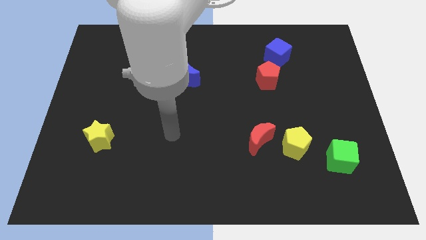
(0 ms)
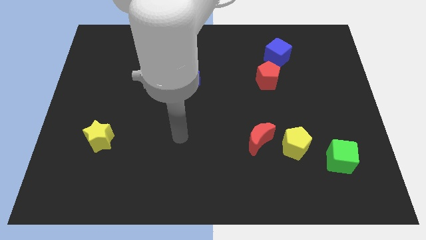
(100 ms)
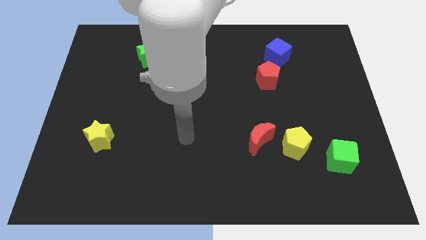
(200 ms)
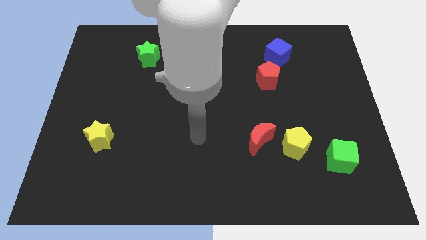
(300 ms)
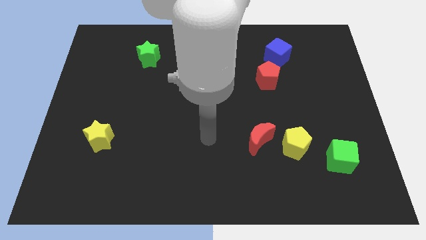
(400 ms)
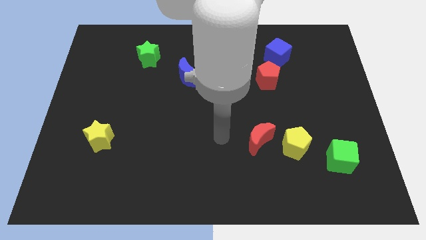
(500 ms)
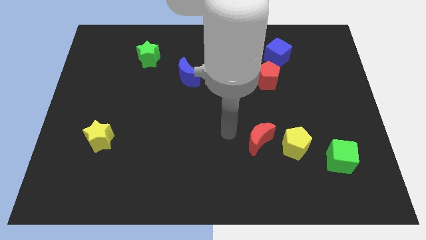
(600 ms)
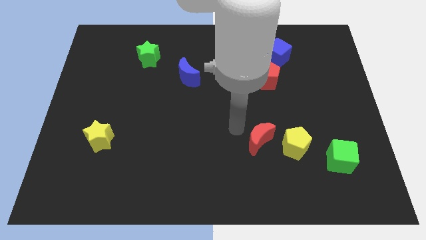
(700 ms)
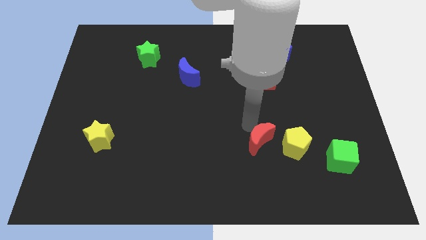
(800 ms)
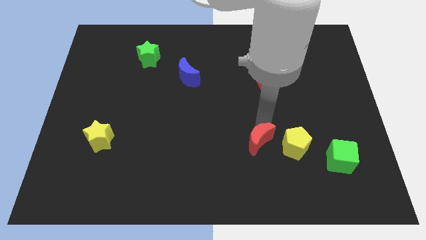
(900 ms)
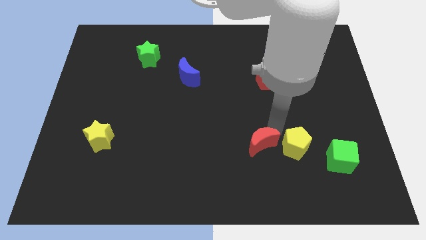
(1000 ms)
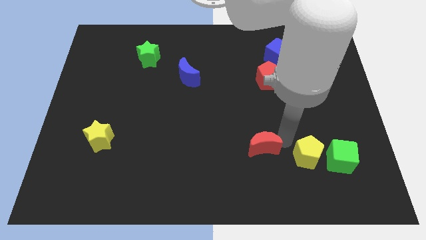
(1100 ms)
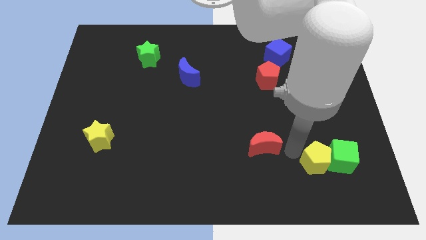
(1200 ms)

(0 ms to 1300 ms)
pull the red moon apart from the yellow pentagon

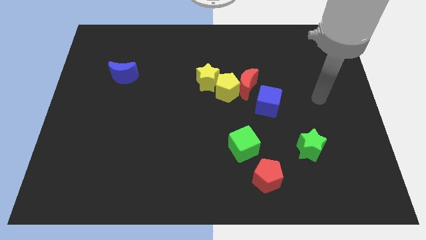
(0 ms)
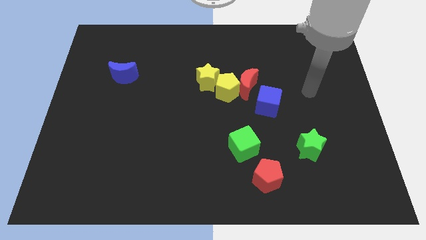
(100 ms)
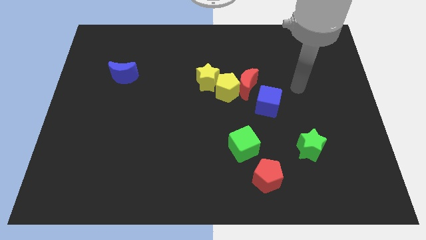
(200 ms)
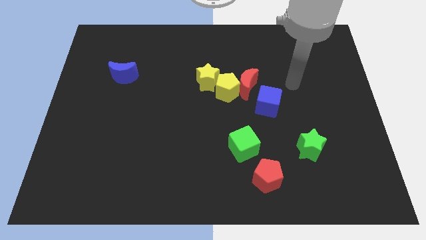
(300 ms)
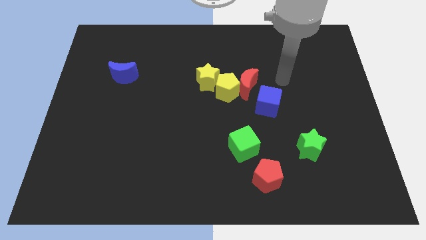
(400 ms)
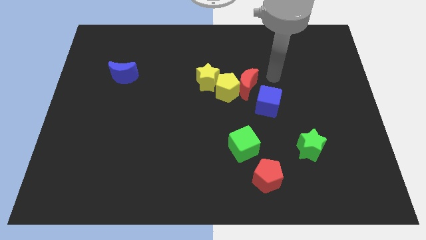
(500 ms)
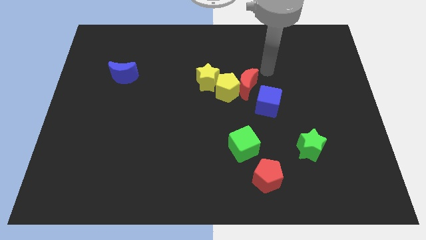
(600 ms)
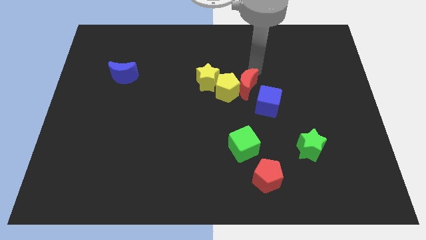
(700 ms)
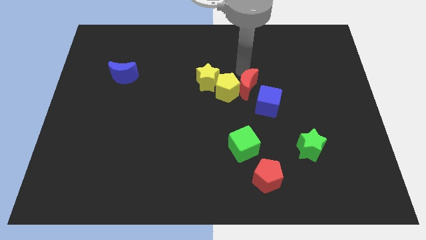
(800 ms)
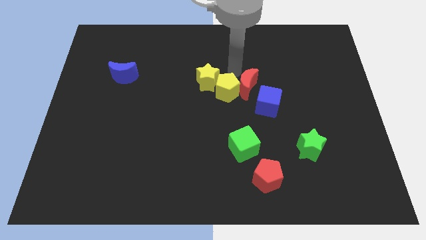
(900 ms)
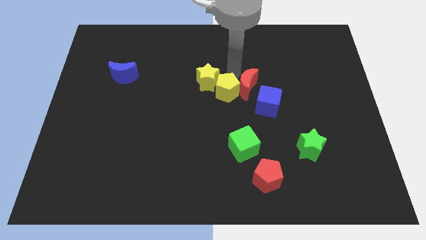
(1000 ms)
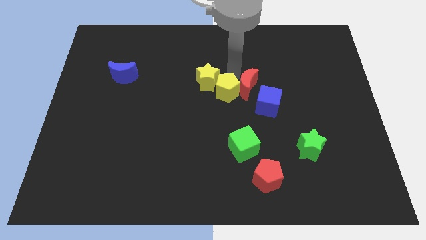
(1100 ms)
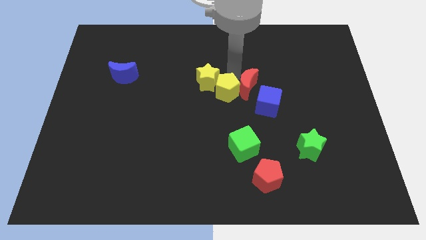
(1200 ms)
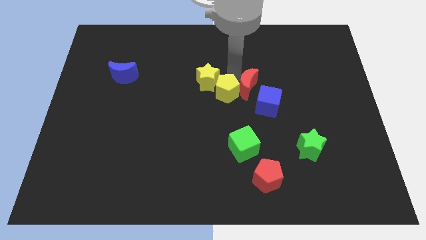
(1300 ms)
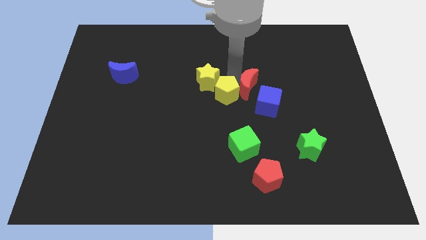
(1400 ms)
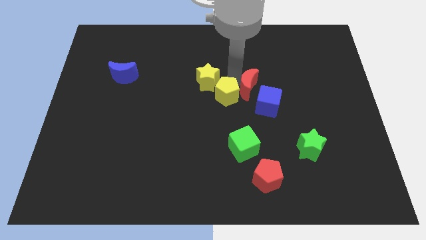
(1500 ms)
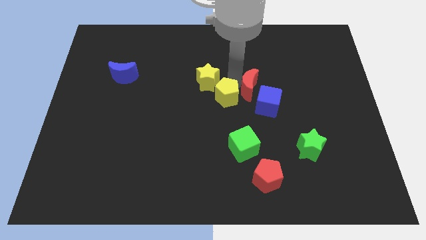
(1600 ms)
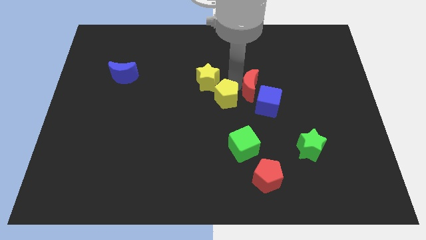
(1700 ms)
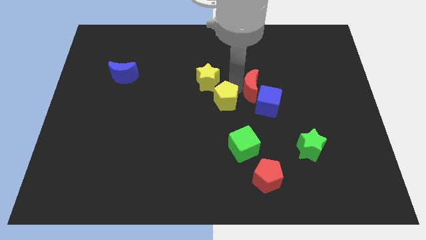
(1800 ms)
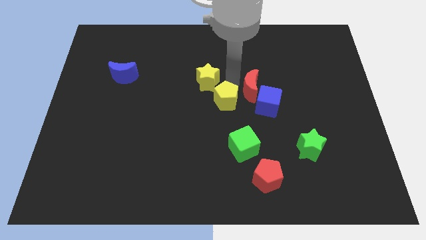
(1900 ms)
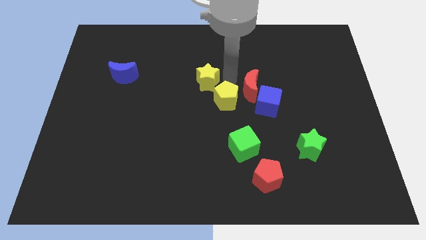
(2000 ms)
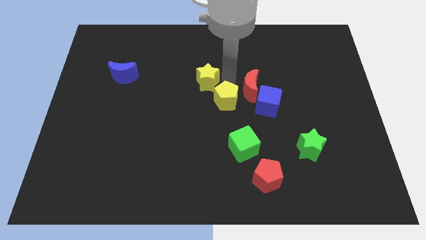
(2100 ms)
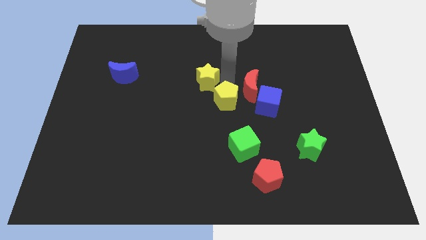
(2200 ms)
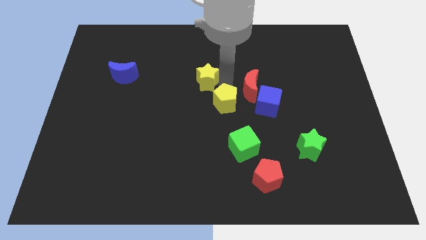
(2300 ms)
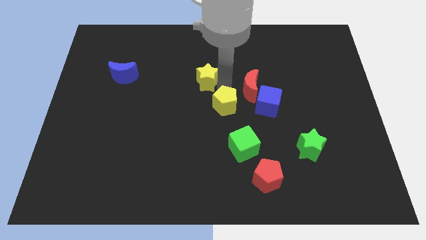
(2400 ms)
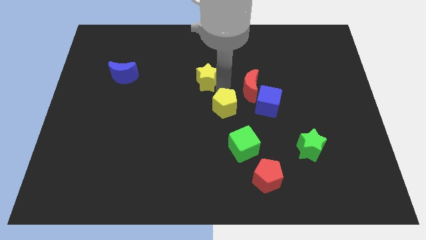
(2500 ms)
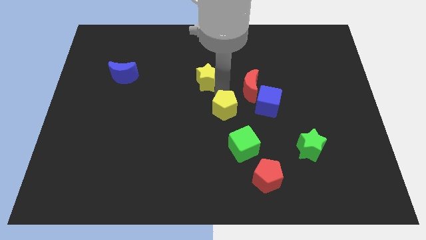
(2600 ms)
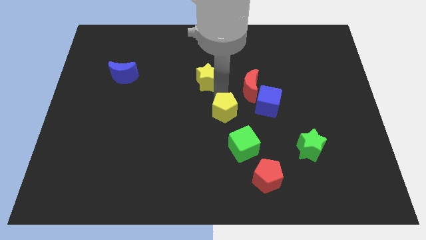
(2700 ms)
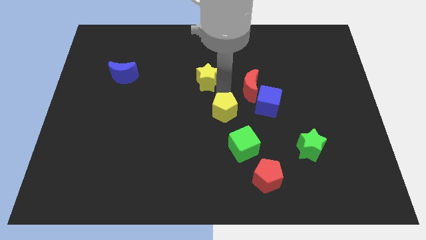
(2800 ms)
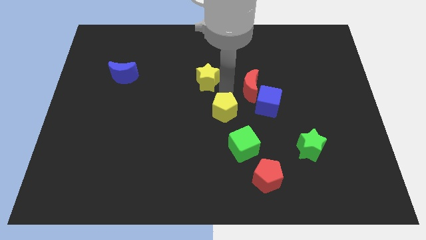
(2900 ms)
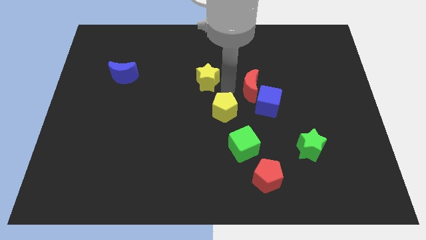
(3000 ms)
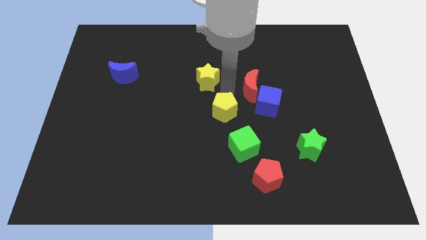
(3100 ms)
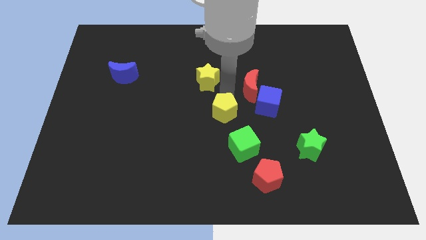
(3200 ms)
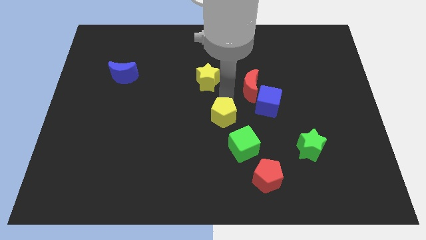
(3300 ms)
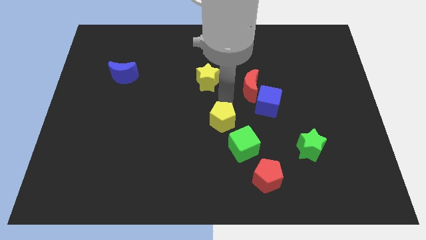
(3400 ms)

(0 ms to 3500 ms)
pull the yellow pentagon apart from the red moon and yellow star

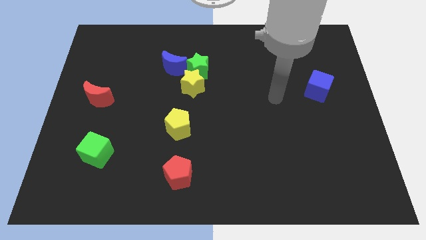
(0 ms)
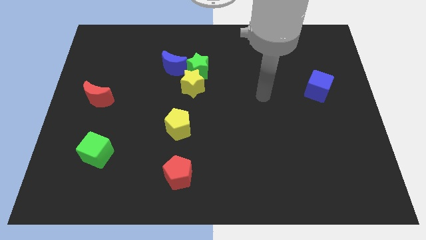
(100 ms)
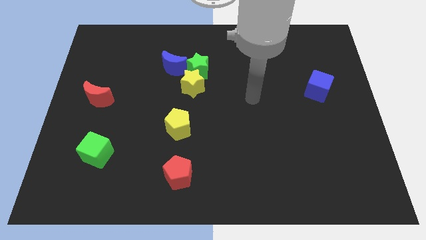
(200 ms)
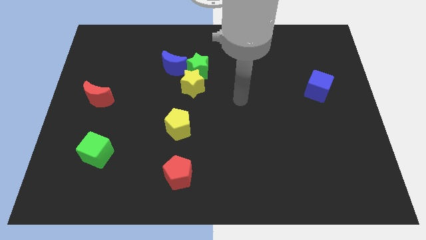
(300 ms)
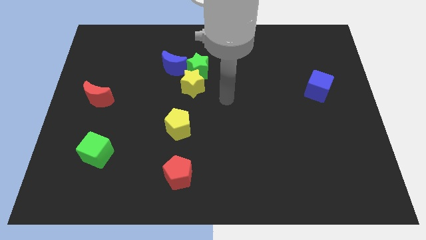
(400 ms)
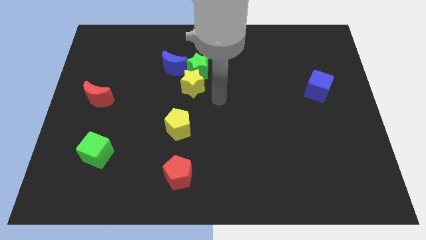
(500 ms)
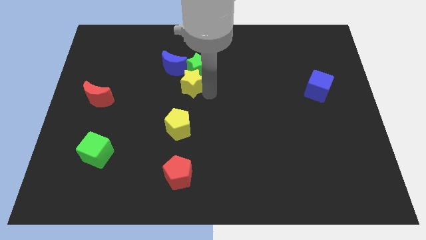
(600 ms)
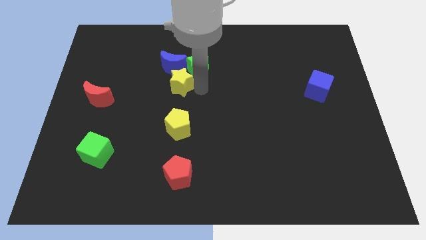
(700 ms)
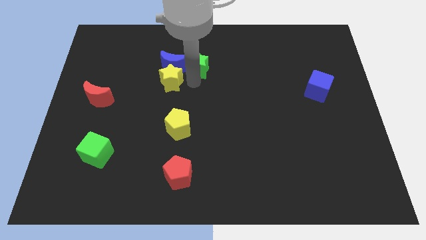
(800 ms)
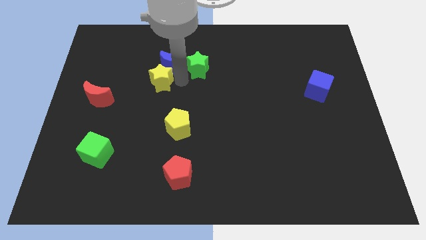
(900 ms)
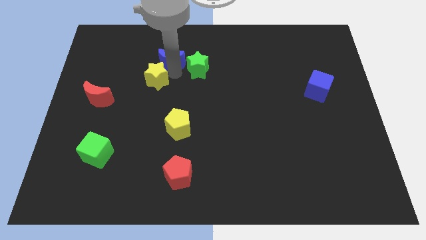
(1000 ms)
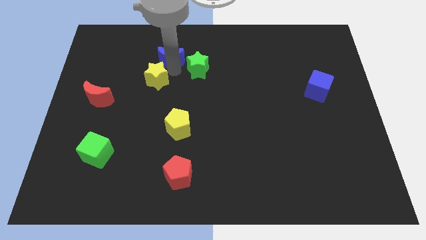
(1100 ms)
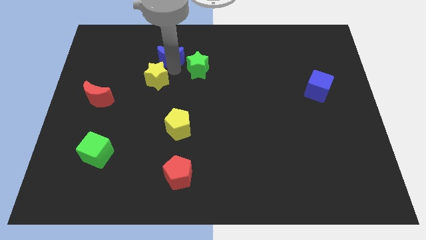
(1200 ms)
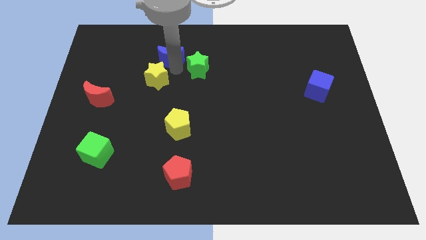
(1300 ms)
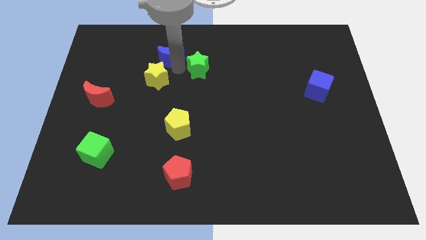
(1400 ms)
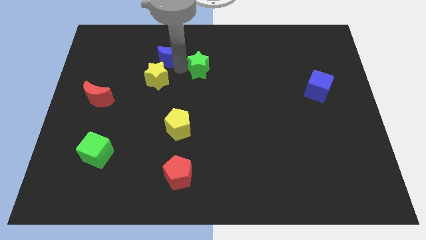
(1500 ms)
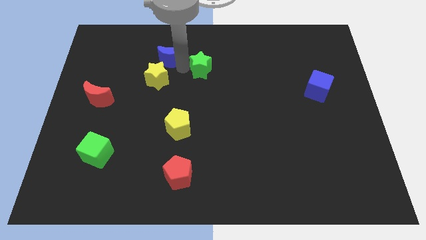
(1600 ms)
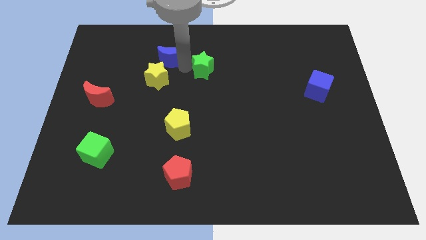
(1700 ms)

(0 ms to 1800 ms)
pull the green star apart from the yellow star and blue moon

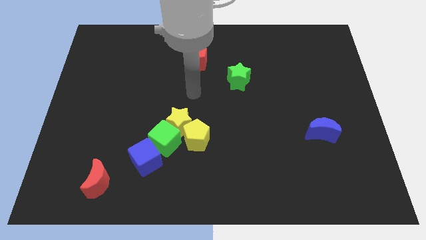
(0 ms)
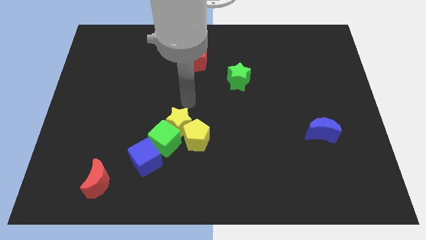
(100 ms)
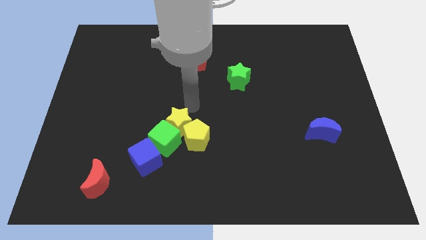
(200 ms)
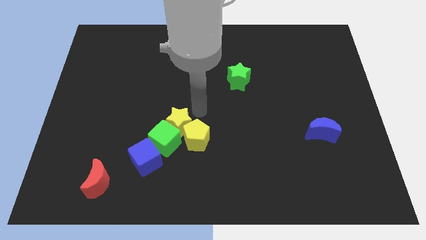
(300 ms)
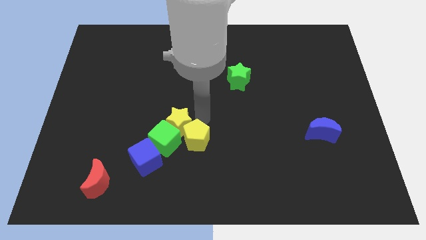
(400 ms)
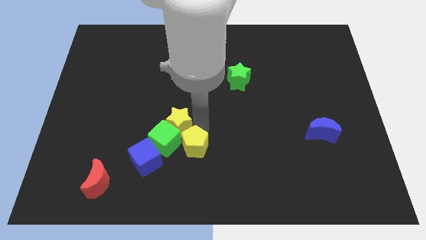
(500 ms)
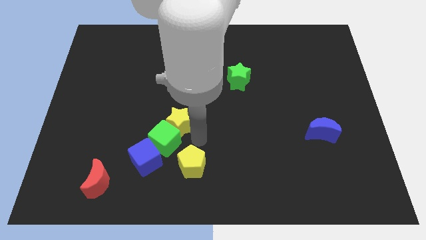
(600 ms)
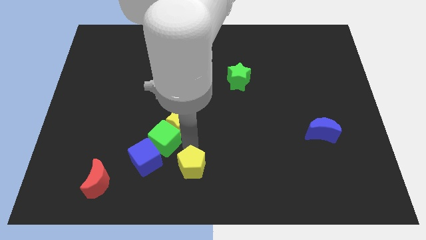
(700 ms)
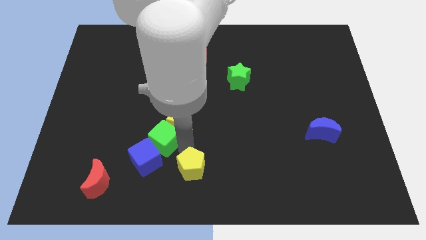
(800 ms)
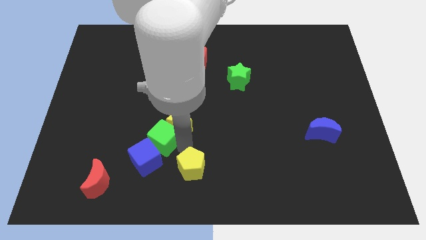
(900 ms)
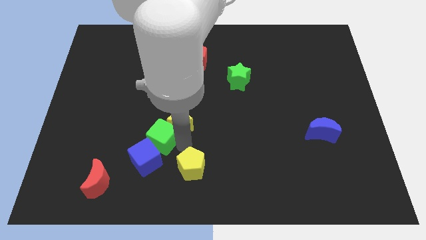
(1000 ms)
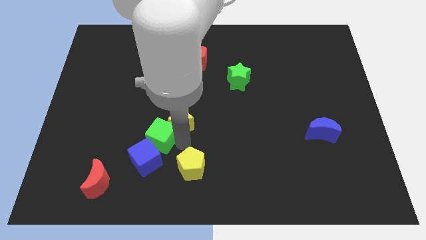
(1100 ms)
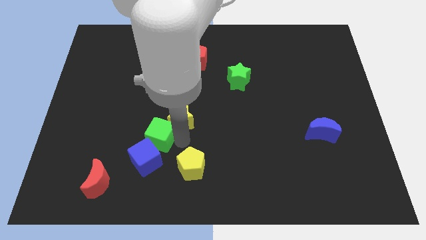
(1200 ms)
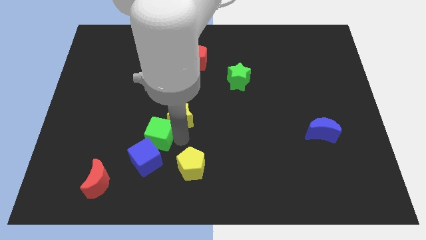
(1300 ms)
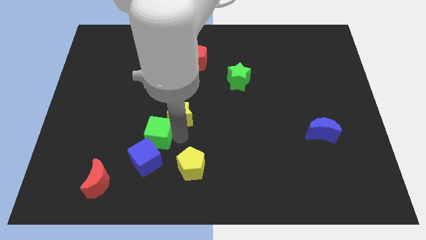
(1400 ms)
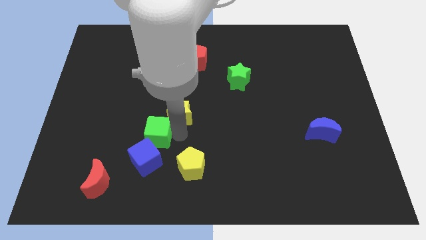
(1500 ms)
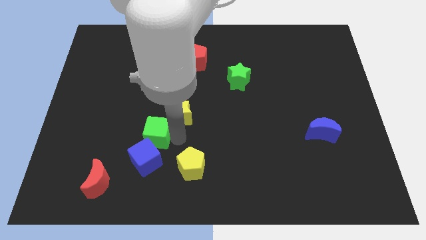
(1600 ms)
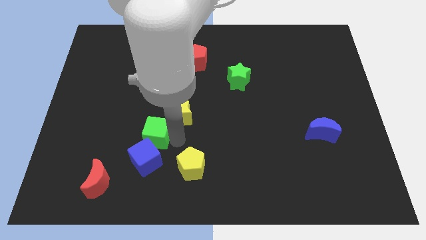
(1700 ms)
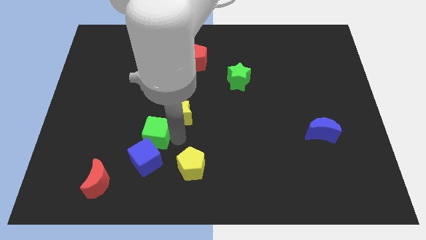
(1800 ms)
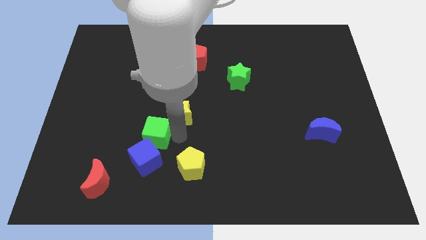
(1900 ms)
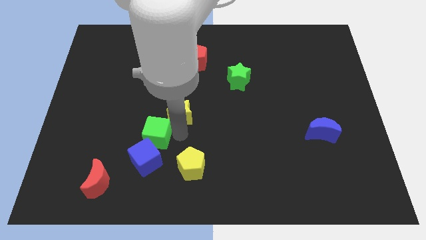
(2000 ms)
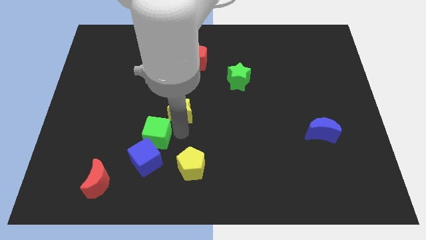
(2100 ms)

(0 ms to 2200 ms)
separate the yellow star from the yellow pentagon and green cube

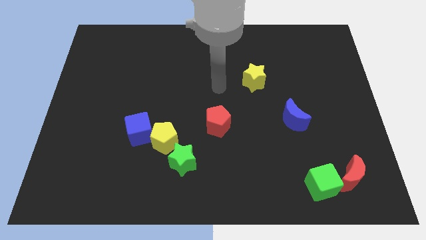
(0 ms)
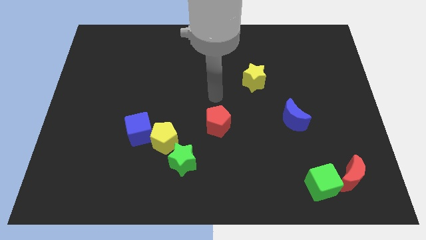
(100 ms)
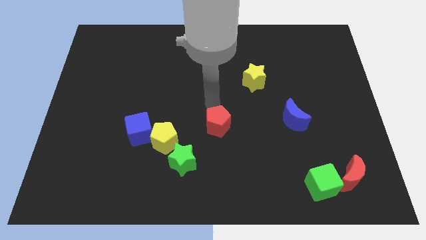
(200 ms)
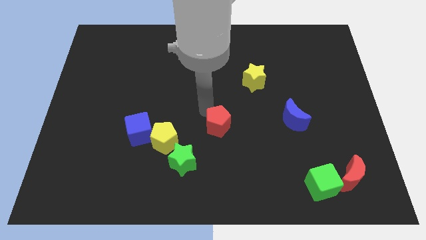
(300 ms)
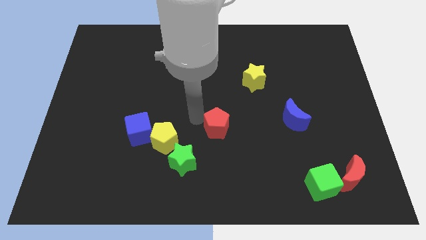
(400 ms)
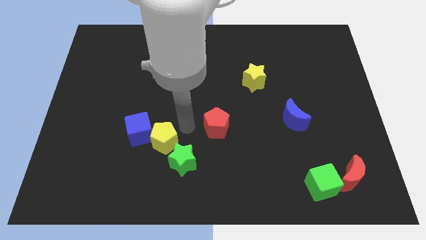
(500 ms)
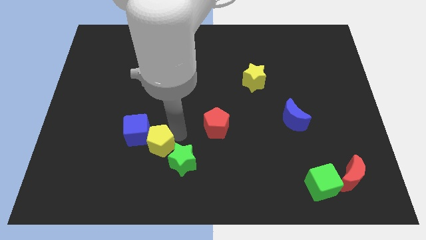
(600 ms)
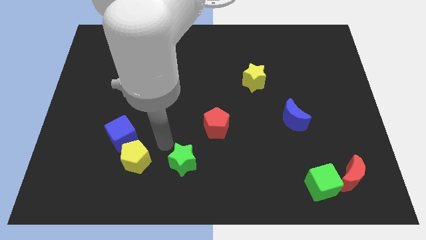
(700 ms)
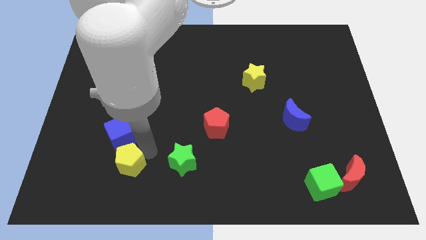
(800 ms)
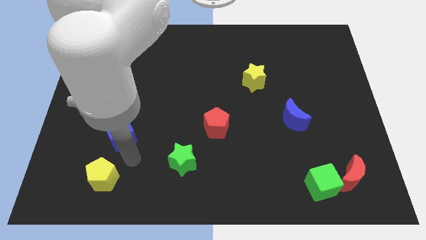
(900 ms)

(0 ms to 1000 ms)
separate the blue cube from the yellow pentagon
